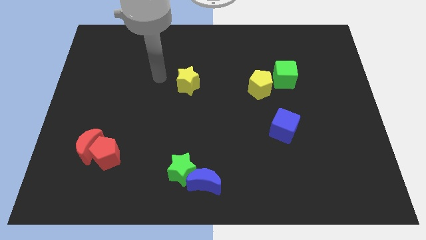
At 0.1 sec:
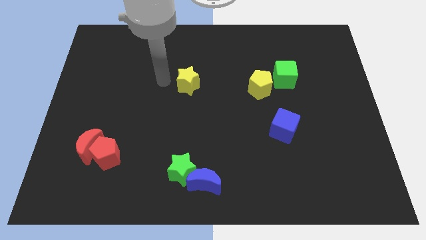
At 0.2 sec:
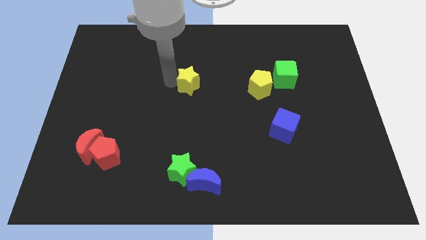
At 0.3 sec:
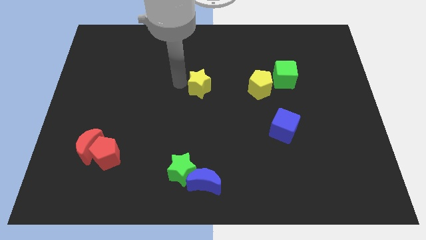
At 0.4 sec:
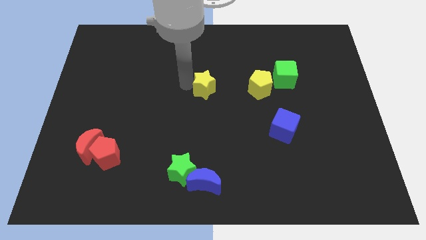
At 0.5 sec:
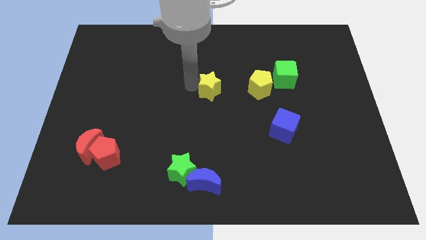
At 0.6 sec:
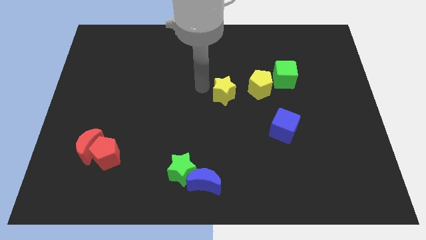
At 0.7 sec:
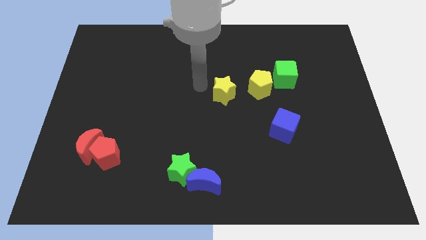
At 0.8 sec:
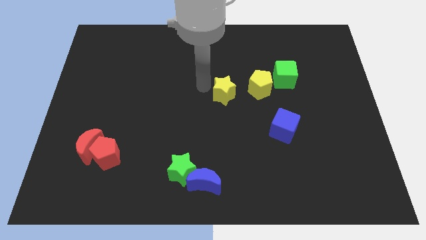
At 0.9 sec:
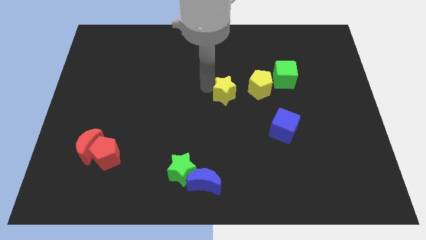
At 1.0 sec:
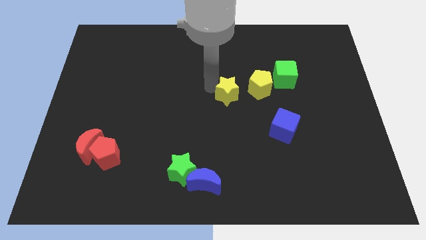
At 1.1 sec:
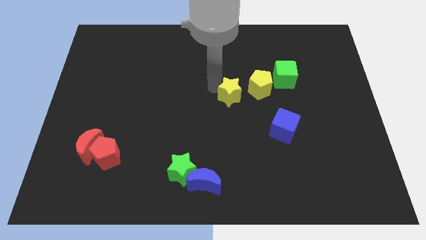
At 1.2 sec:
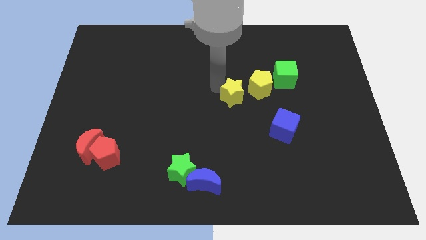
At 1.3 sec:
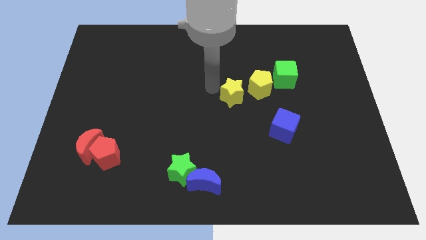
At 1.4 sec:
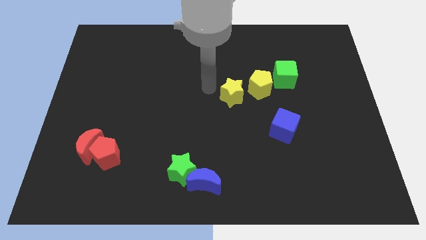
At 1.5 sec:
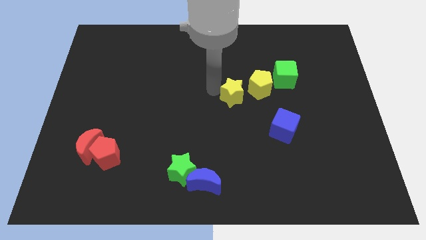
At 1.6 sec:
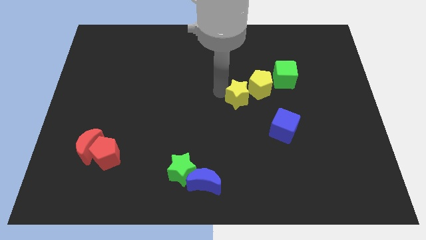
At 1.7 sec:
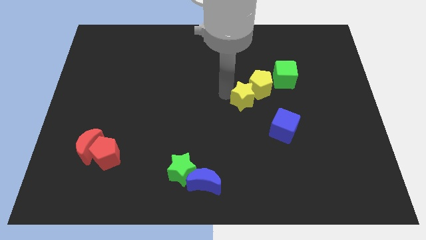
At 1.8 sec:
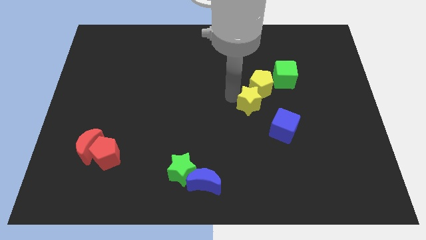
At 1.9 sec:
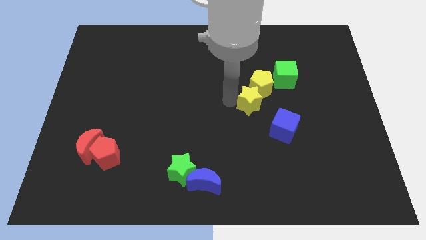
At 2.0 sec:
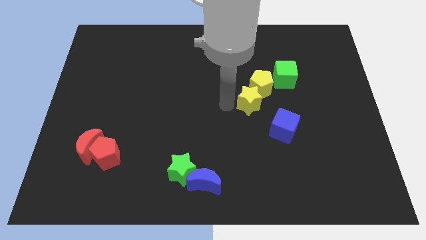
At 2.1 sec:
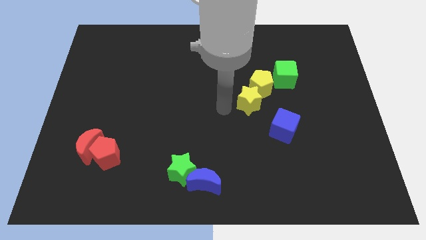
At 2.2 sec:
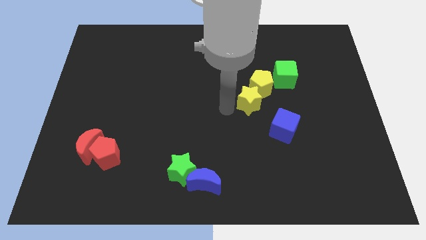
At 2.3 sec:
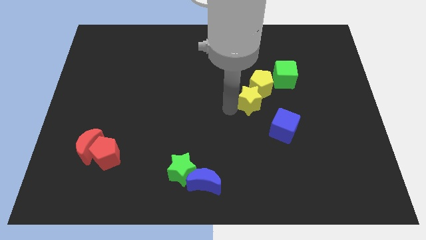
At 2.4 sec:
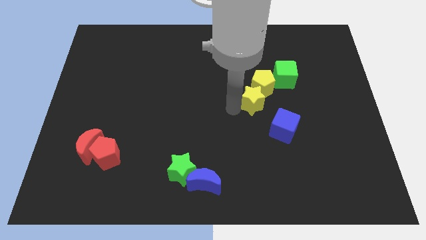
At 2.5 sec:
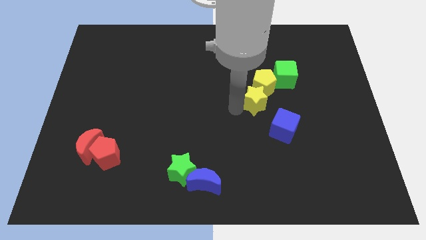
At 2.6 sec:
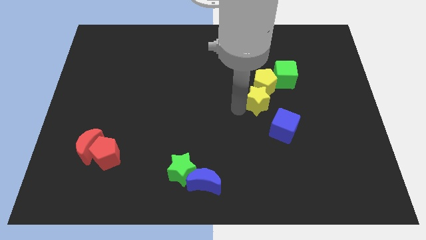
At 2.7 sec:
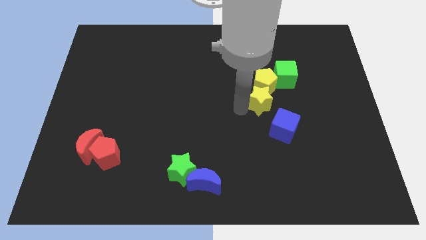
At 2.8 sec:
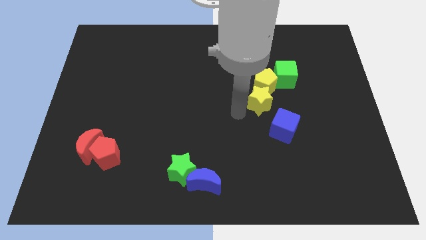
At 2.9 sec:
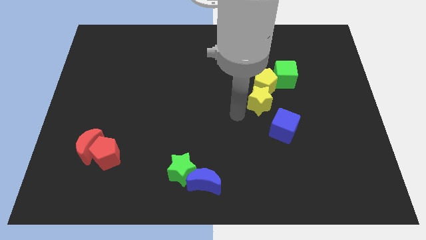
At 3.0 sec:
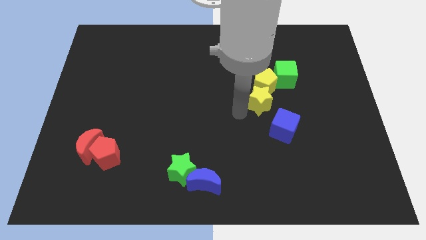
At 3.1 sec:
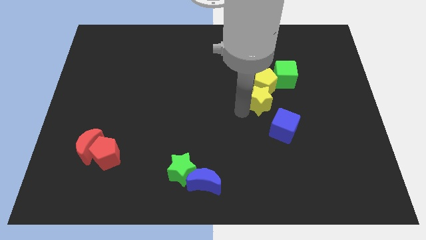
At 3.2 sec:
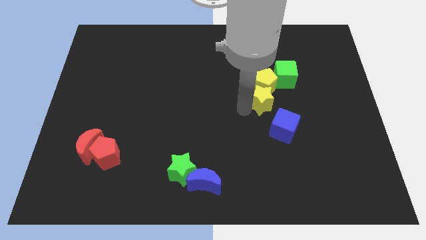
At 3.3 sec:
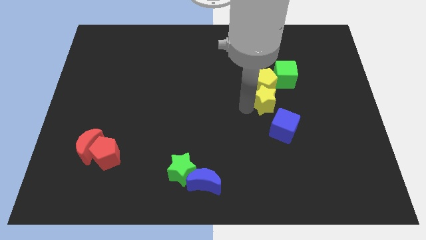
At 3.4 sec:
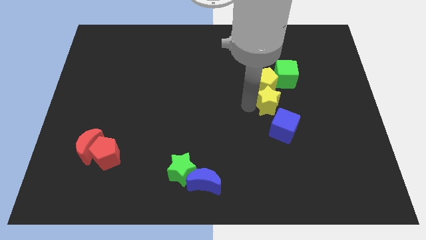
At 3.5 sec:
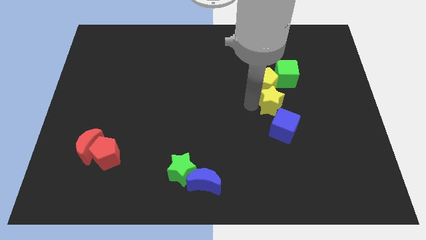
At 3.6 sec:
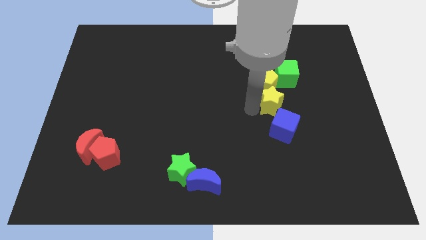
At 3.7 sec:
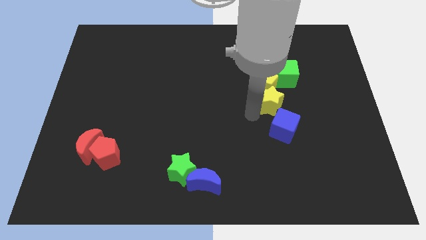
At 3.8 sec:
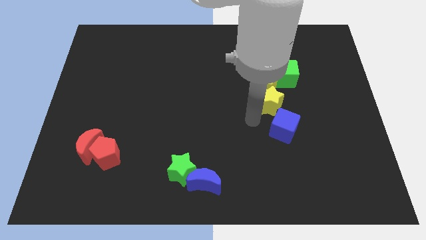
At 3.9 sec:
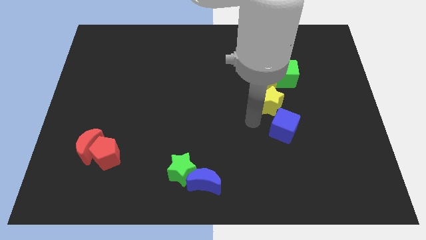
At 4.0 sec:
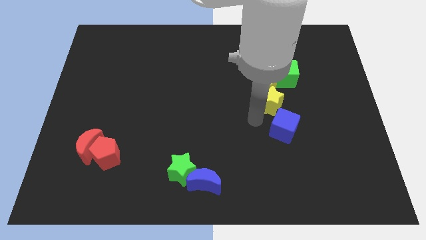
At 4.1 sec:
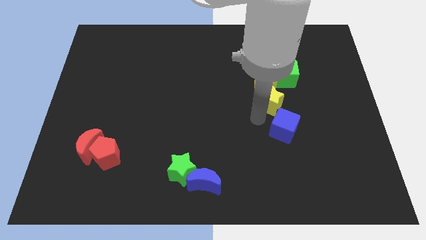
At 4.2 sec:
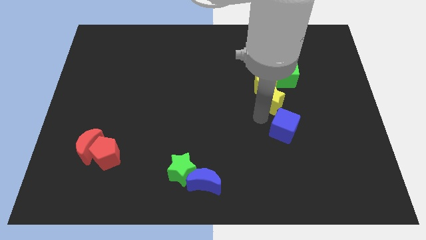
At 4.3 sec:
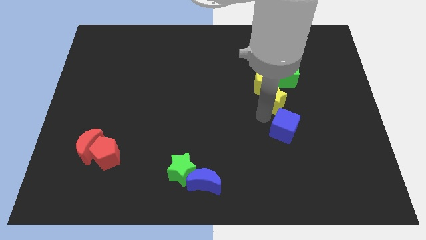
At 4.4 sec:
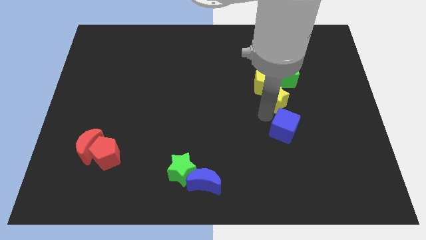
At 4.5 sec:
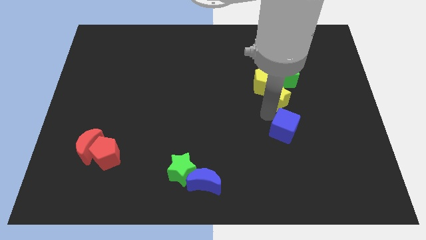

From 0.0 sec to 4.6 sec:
push the yellow star right

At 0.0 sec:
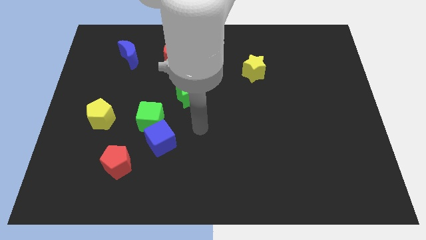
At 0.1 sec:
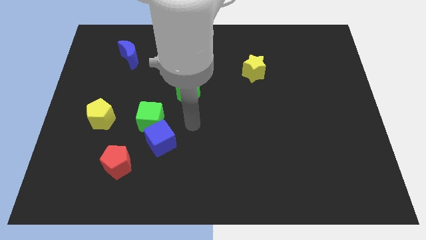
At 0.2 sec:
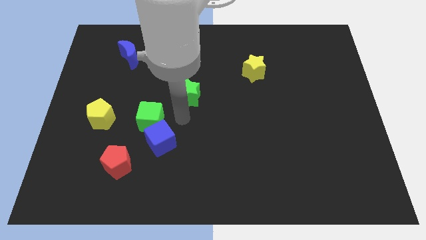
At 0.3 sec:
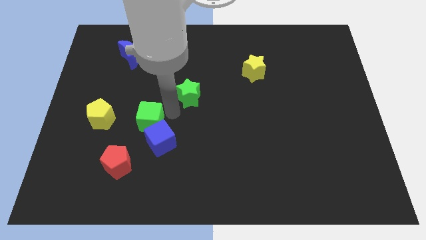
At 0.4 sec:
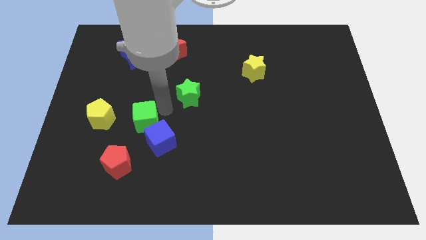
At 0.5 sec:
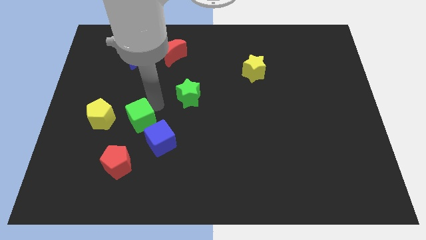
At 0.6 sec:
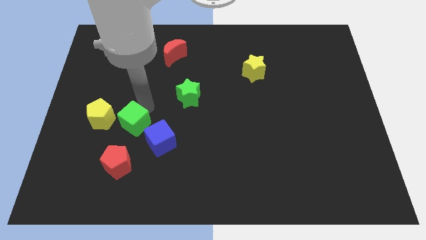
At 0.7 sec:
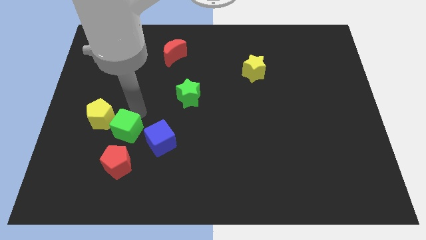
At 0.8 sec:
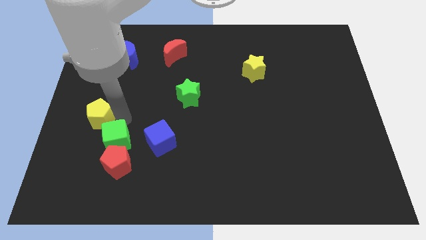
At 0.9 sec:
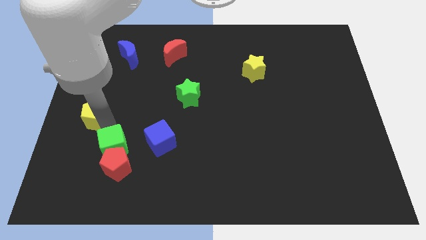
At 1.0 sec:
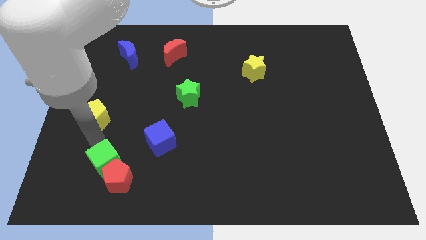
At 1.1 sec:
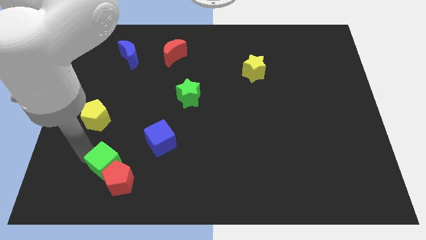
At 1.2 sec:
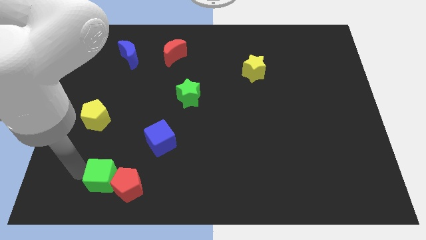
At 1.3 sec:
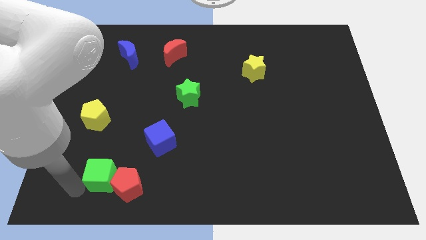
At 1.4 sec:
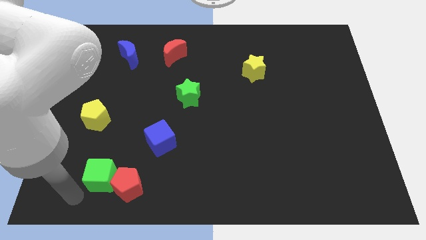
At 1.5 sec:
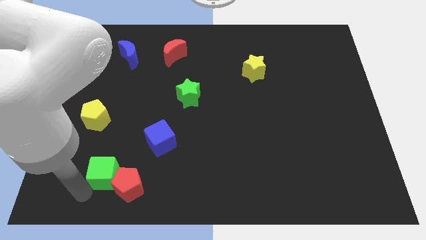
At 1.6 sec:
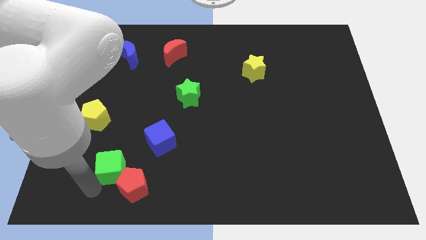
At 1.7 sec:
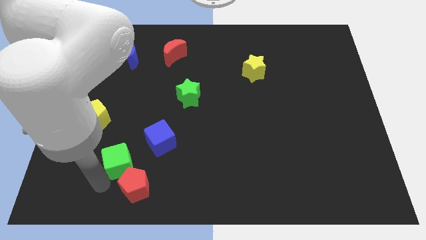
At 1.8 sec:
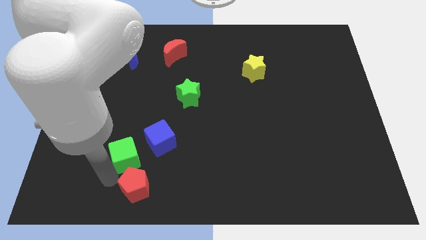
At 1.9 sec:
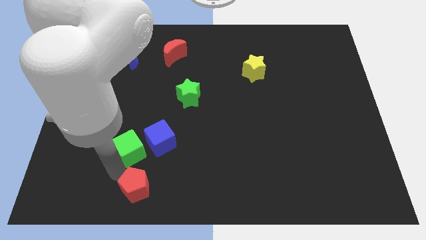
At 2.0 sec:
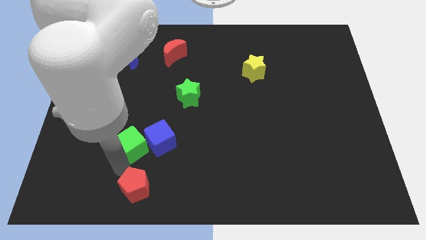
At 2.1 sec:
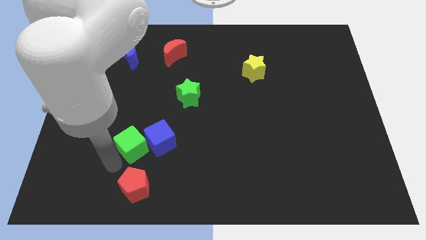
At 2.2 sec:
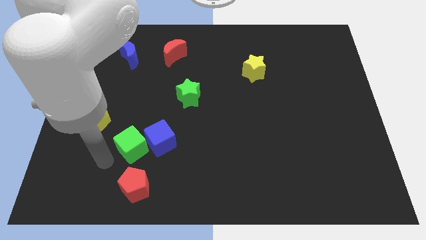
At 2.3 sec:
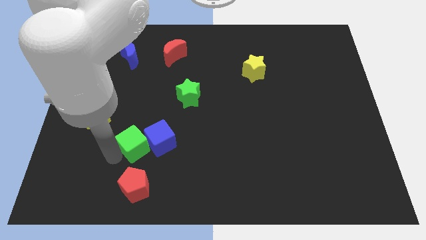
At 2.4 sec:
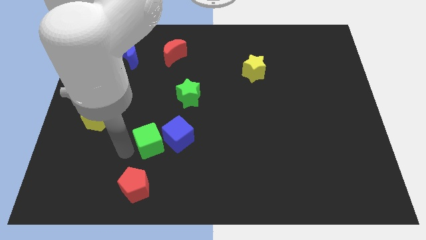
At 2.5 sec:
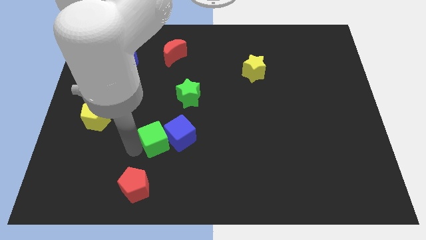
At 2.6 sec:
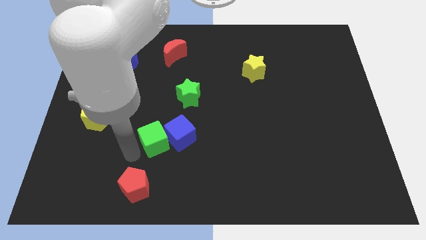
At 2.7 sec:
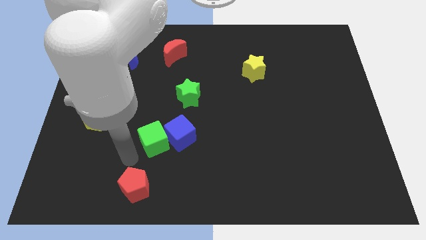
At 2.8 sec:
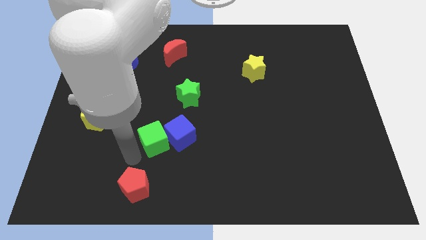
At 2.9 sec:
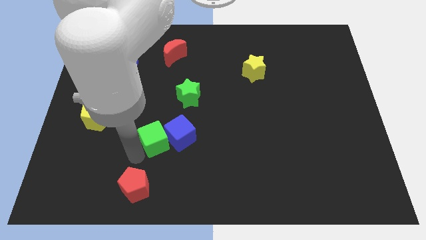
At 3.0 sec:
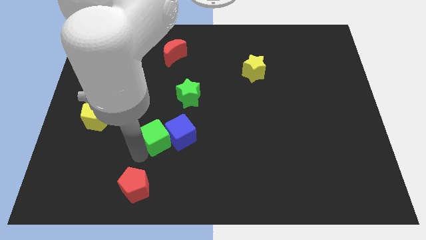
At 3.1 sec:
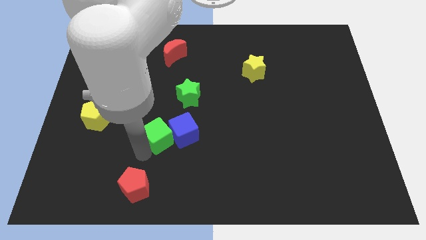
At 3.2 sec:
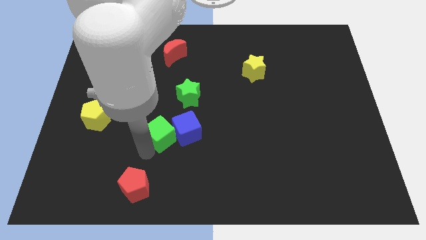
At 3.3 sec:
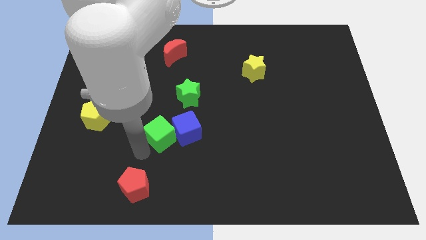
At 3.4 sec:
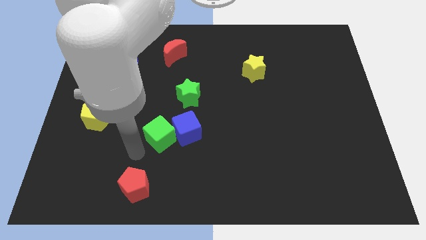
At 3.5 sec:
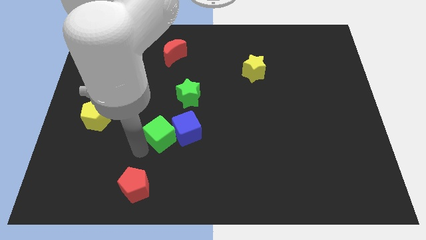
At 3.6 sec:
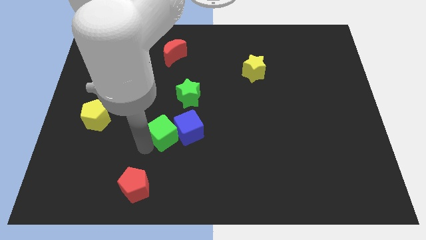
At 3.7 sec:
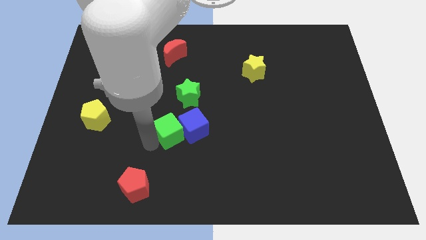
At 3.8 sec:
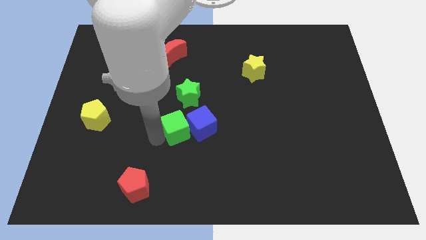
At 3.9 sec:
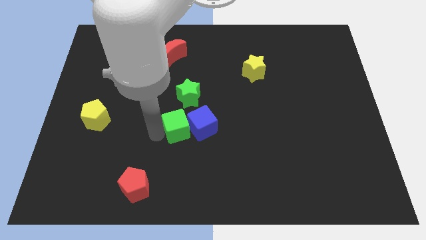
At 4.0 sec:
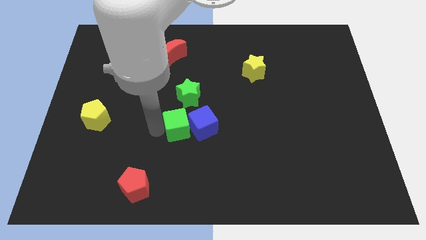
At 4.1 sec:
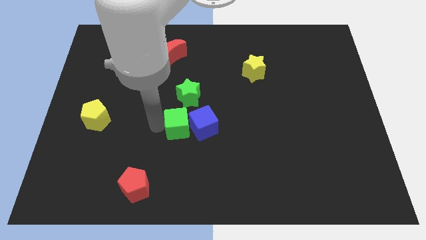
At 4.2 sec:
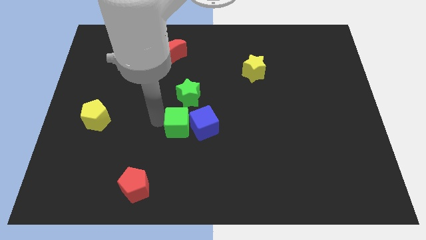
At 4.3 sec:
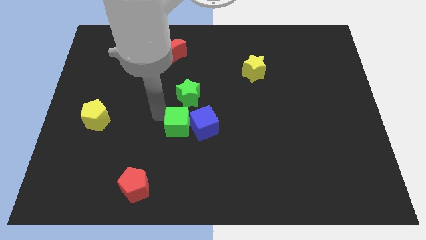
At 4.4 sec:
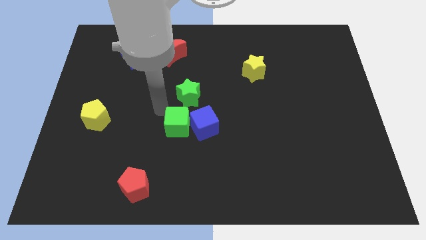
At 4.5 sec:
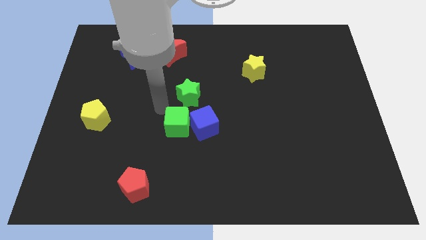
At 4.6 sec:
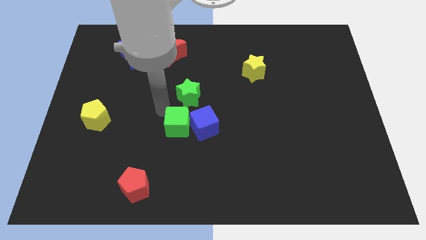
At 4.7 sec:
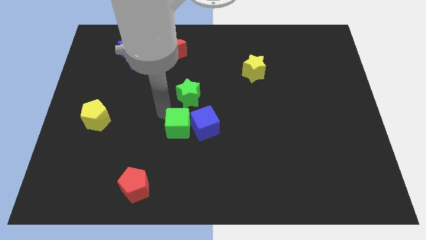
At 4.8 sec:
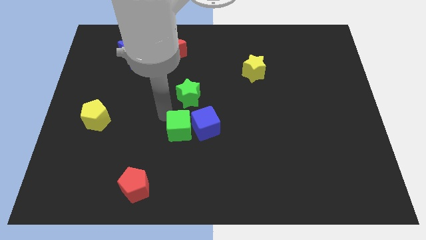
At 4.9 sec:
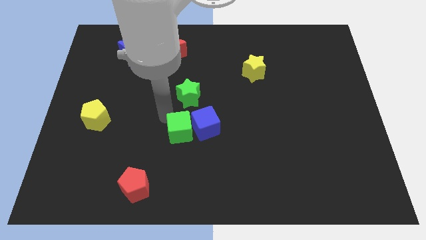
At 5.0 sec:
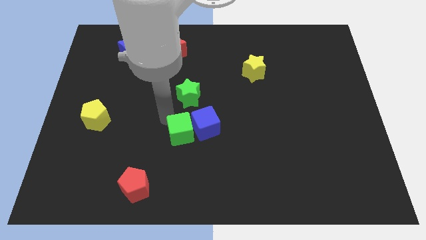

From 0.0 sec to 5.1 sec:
push the green cube a little bit diagonally down and to the right
